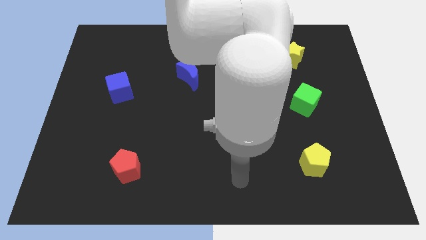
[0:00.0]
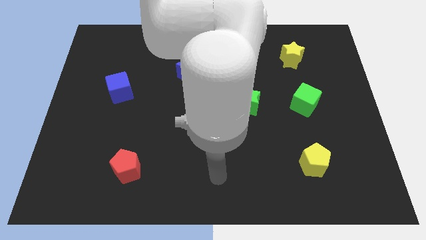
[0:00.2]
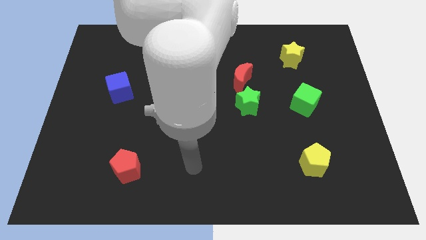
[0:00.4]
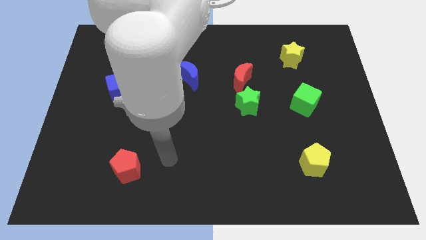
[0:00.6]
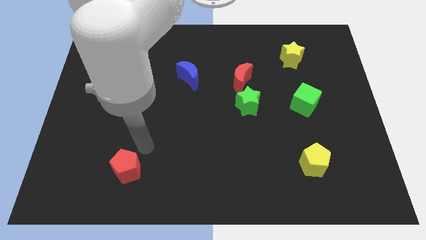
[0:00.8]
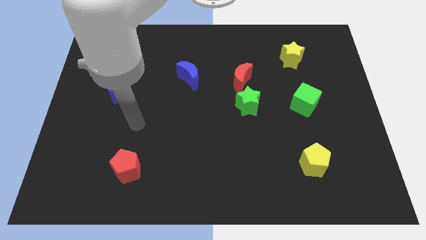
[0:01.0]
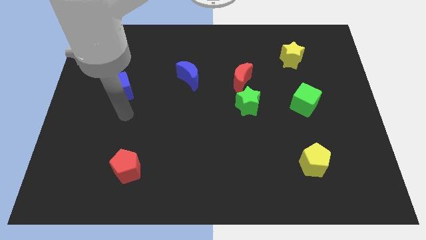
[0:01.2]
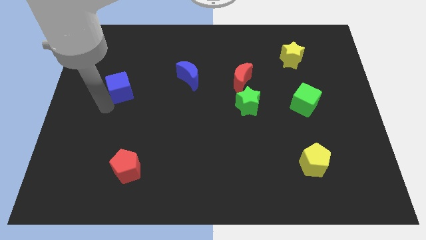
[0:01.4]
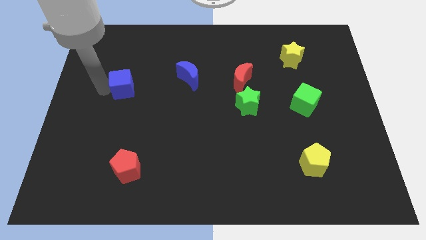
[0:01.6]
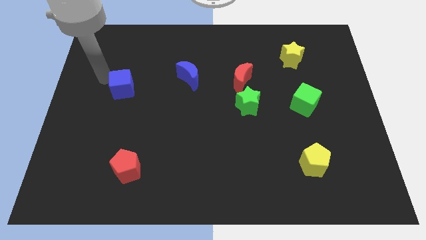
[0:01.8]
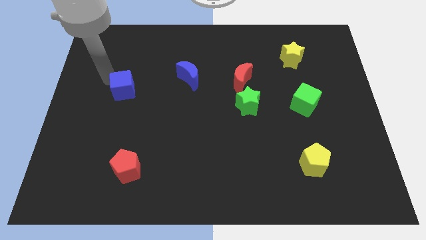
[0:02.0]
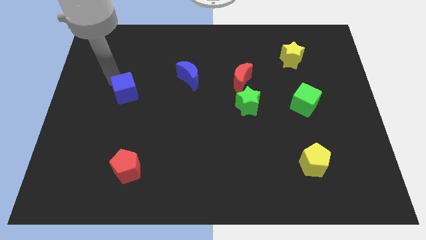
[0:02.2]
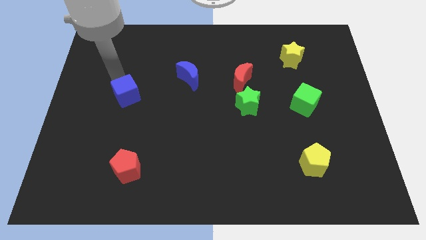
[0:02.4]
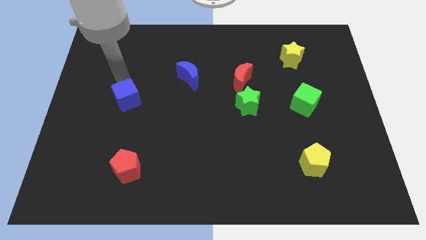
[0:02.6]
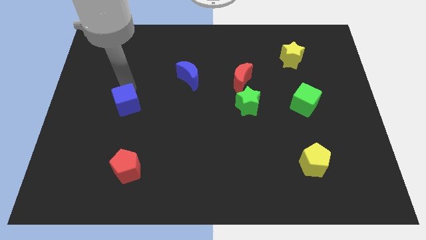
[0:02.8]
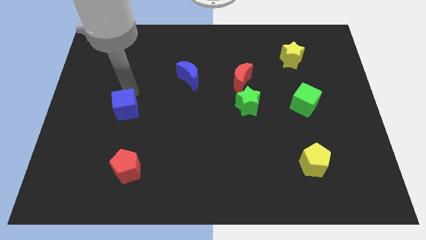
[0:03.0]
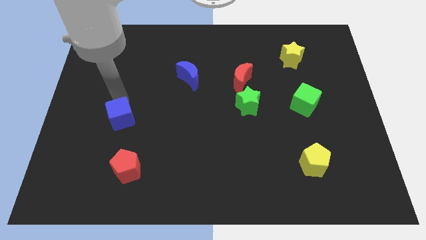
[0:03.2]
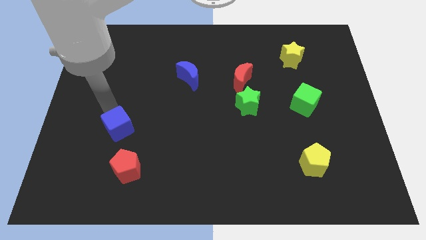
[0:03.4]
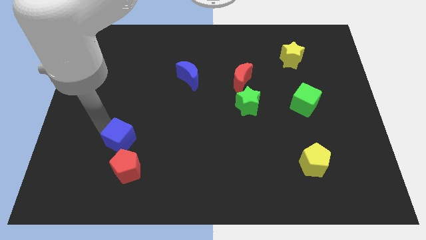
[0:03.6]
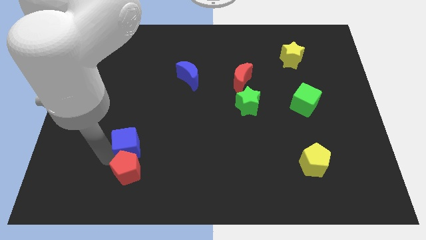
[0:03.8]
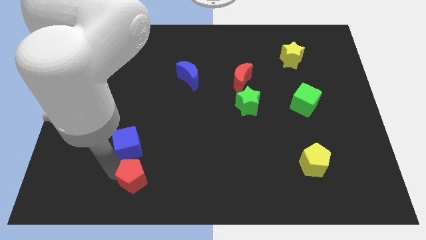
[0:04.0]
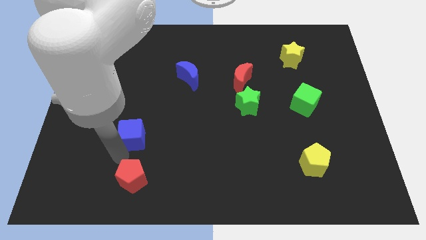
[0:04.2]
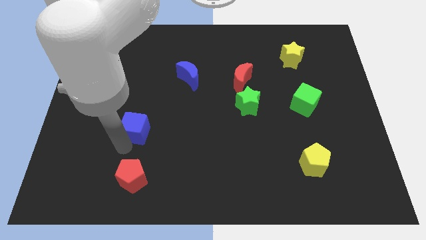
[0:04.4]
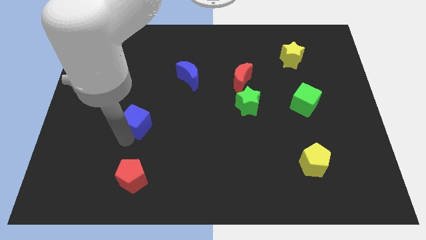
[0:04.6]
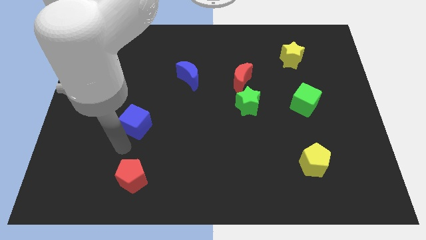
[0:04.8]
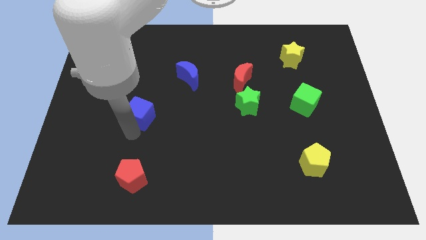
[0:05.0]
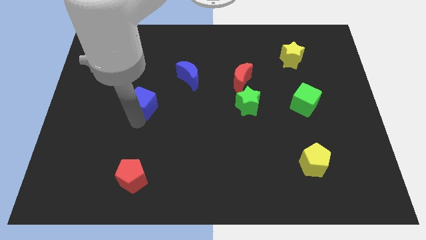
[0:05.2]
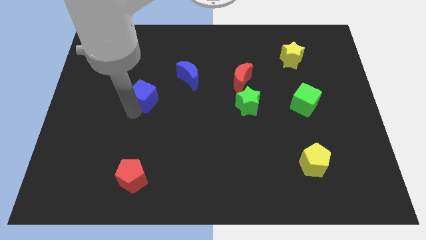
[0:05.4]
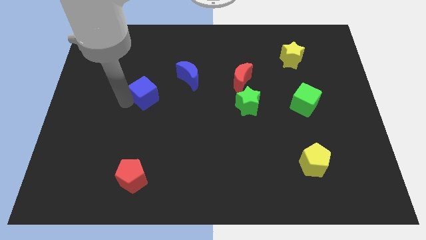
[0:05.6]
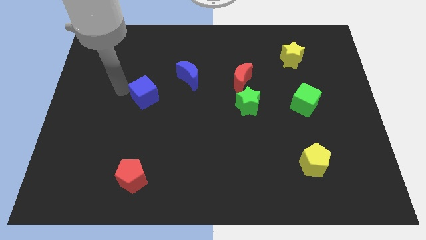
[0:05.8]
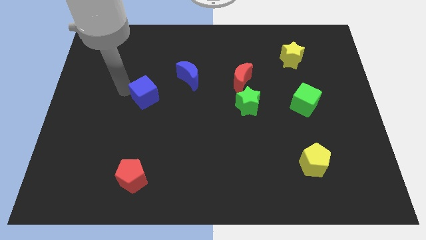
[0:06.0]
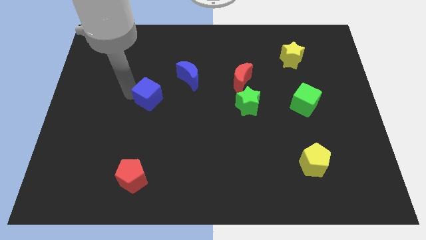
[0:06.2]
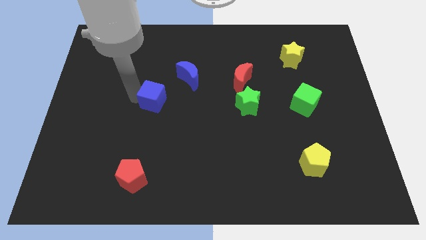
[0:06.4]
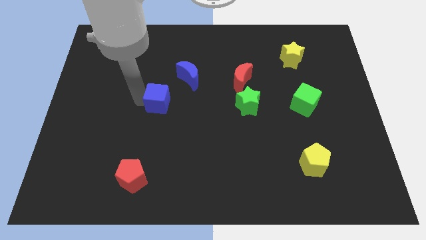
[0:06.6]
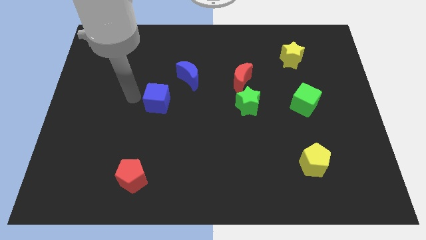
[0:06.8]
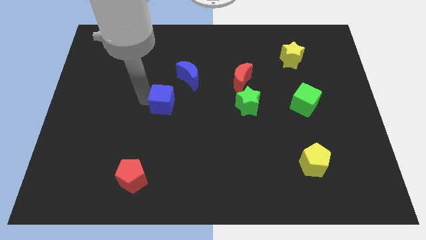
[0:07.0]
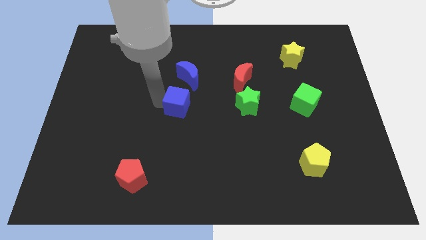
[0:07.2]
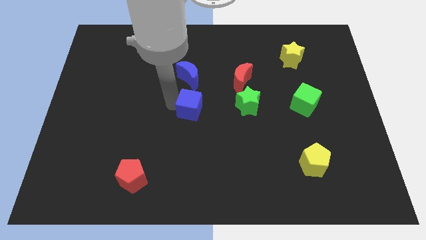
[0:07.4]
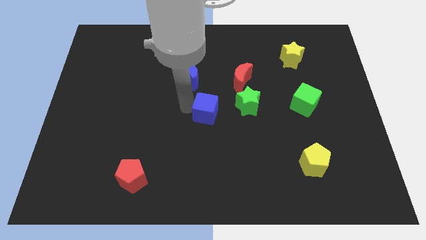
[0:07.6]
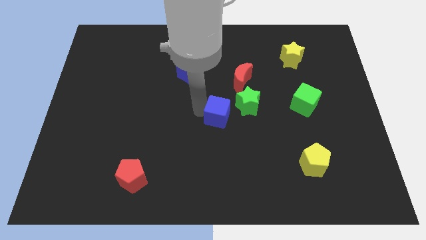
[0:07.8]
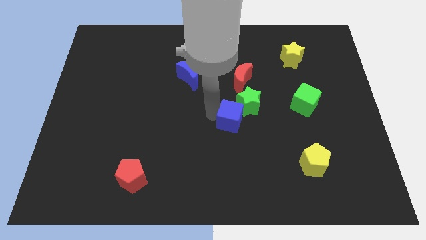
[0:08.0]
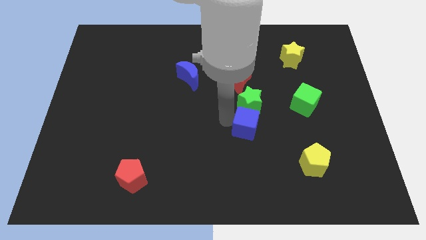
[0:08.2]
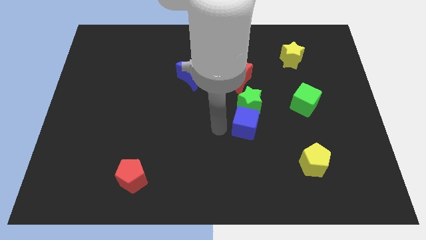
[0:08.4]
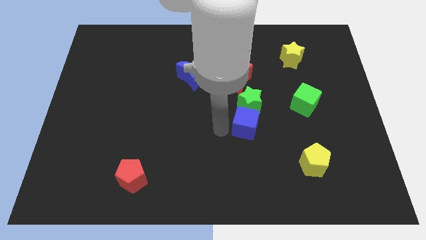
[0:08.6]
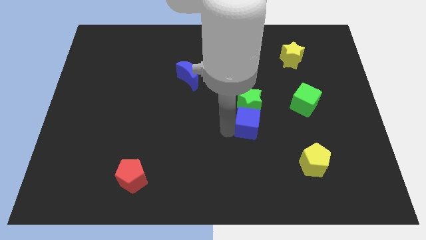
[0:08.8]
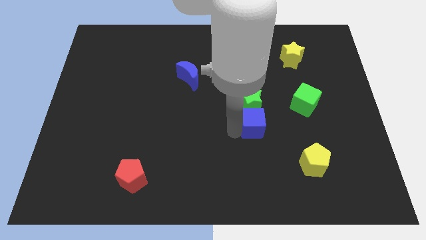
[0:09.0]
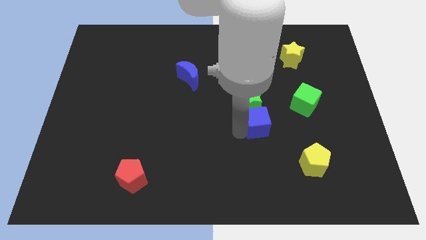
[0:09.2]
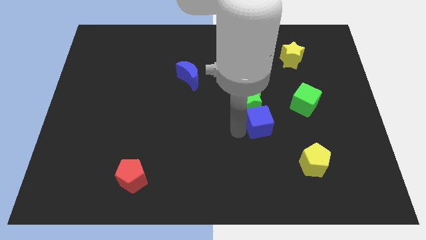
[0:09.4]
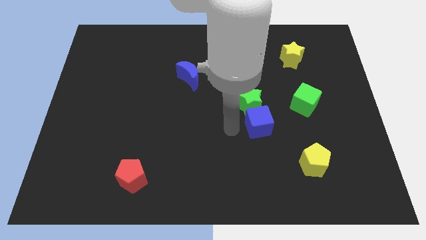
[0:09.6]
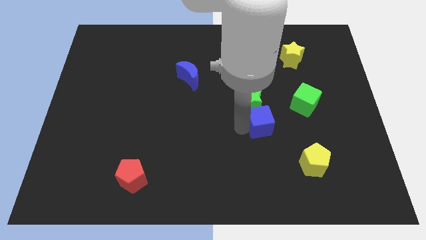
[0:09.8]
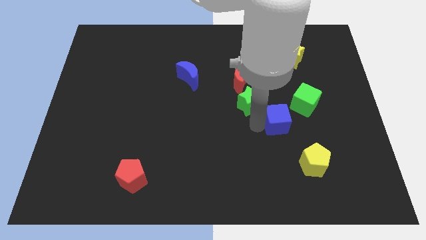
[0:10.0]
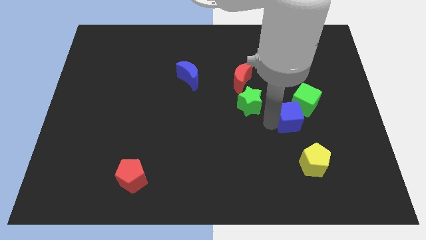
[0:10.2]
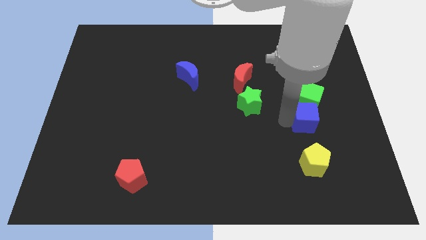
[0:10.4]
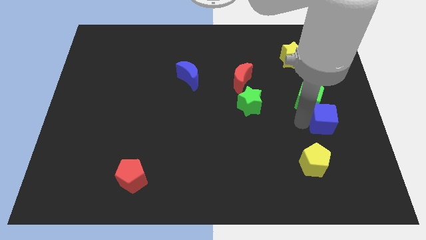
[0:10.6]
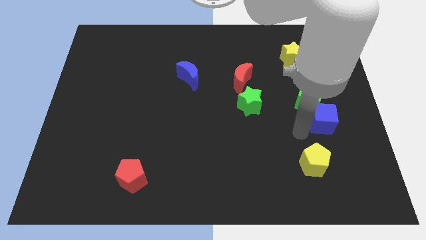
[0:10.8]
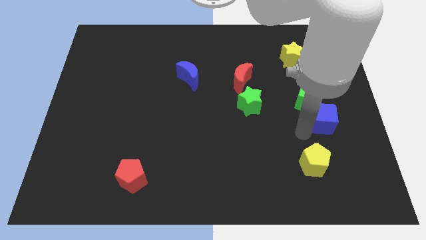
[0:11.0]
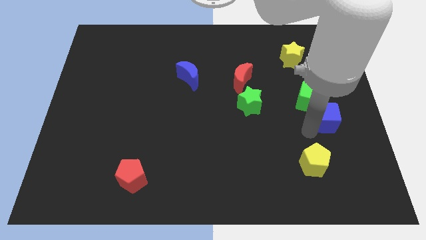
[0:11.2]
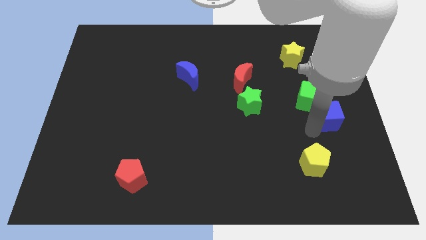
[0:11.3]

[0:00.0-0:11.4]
slide the blue cube to the right side

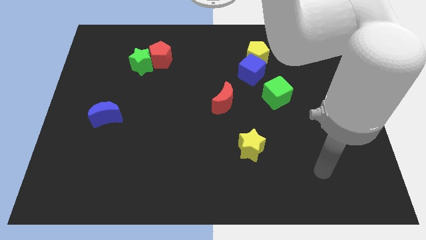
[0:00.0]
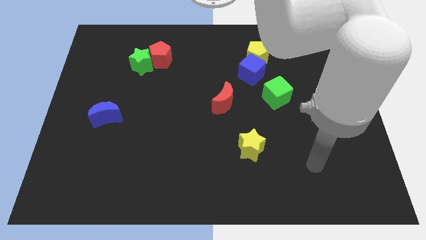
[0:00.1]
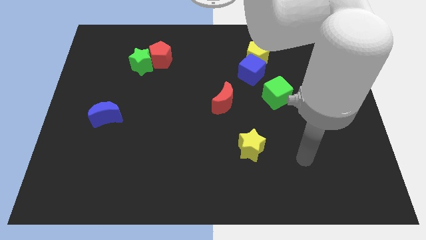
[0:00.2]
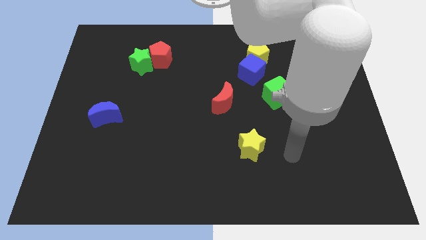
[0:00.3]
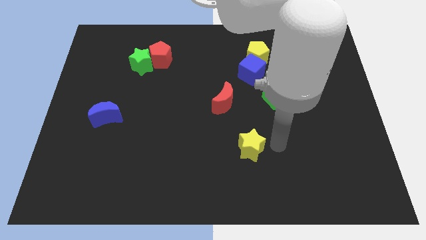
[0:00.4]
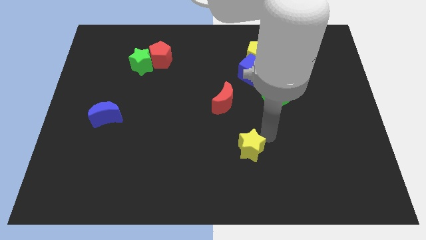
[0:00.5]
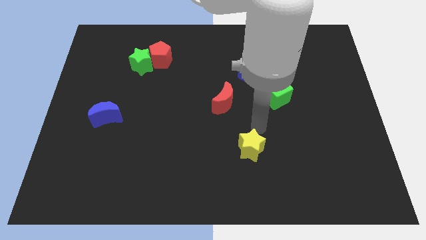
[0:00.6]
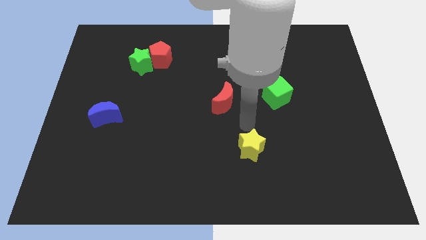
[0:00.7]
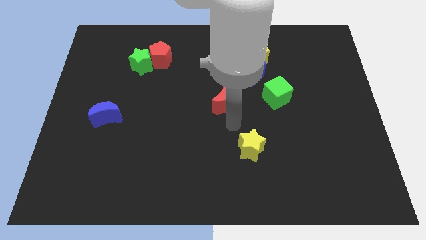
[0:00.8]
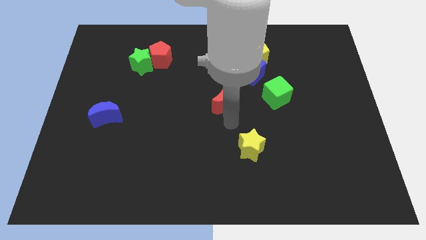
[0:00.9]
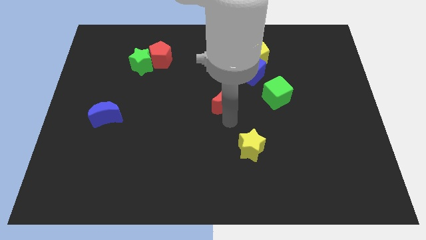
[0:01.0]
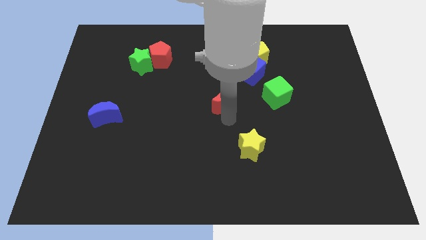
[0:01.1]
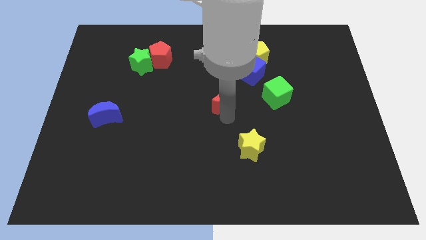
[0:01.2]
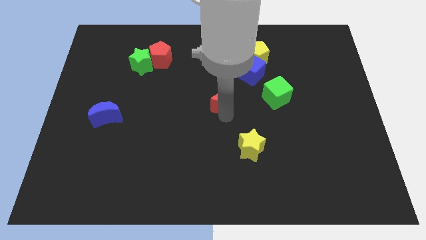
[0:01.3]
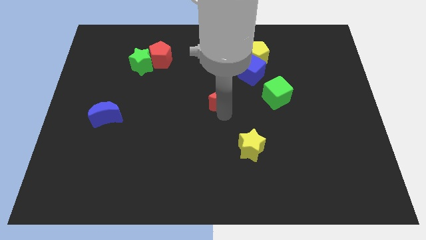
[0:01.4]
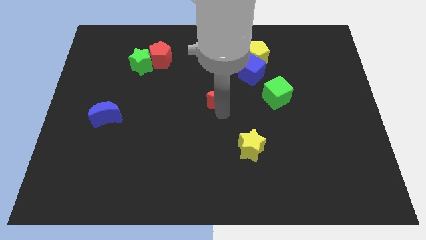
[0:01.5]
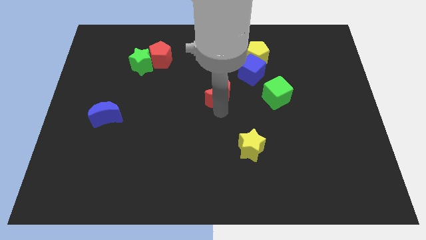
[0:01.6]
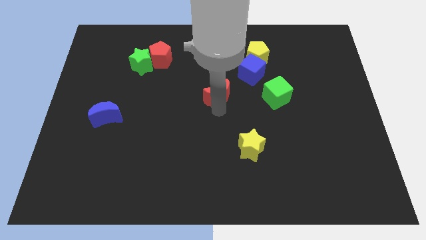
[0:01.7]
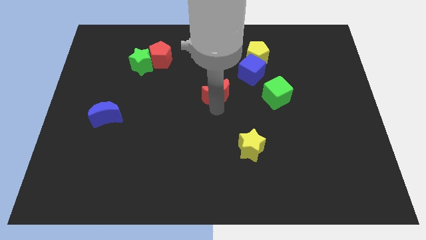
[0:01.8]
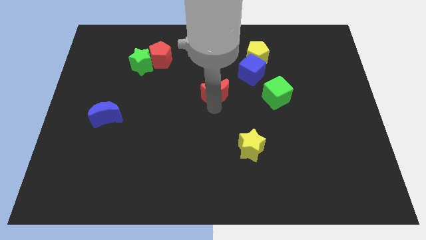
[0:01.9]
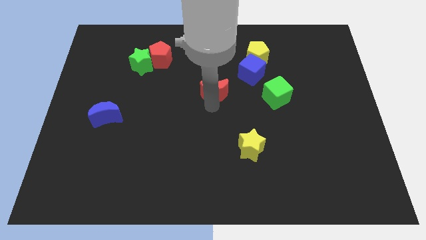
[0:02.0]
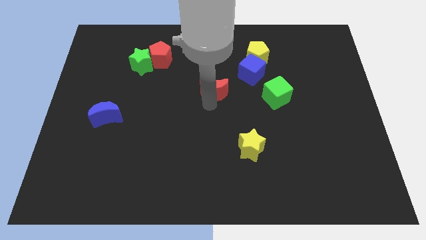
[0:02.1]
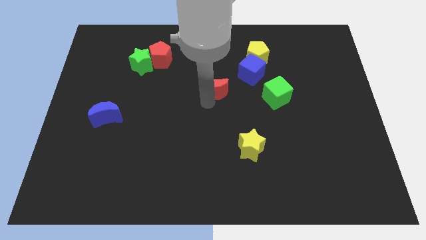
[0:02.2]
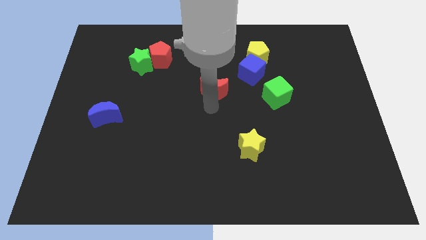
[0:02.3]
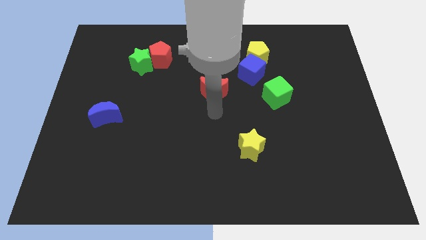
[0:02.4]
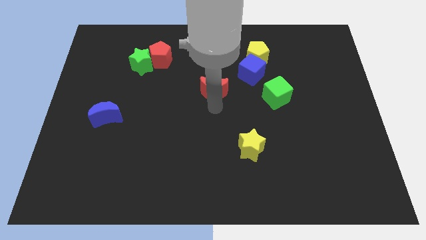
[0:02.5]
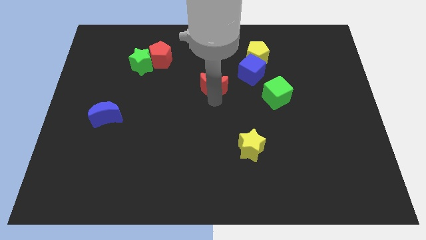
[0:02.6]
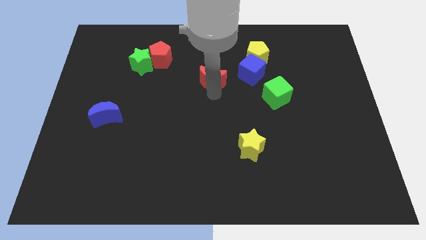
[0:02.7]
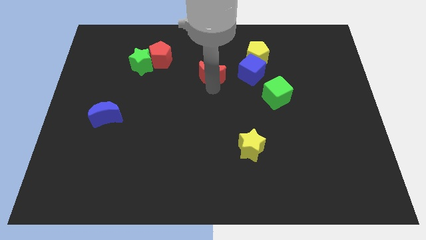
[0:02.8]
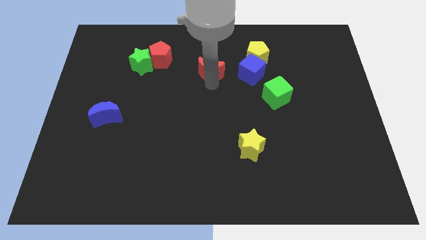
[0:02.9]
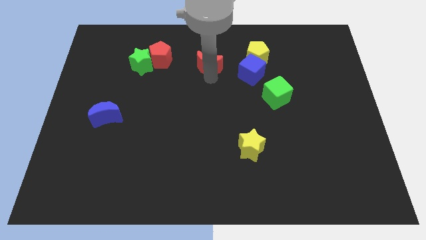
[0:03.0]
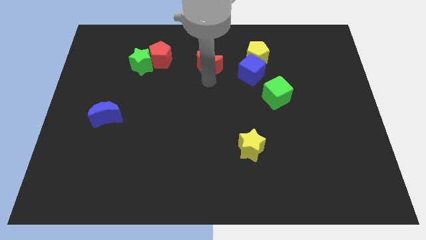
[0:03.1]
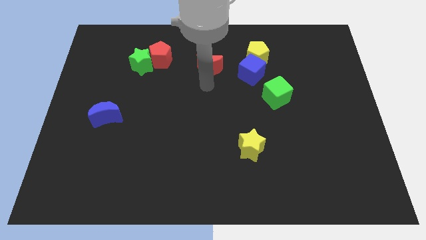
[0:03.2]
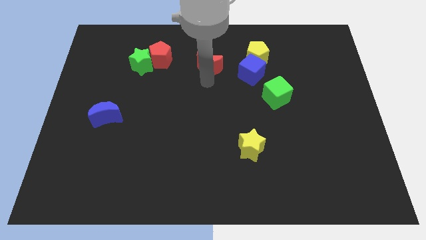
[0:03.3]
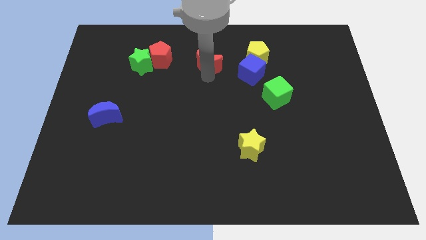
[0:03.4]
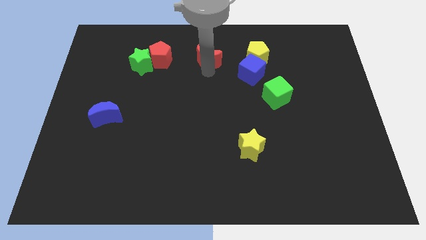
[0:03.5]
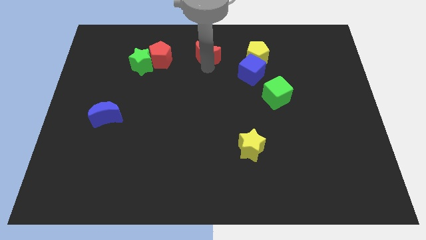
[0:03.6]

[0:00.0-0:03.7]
put the red moon to the top side
